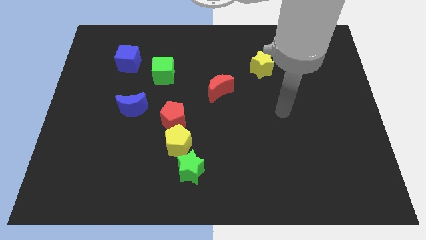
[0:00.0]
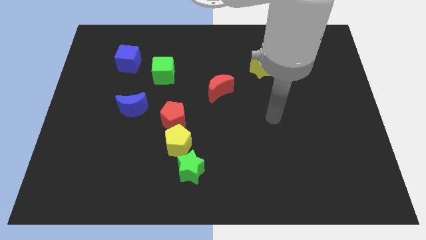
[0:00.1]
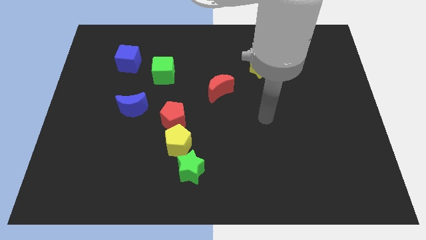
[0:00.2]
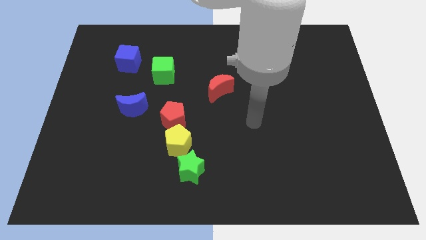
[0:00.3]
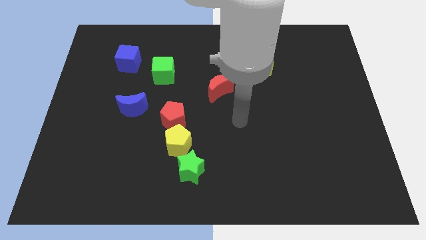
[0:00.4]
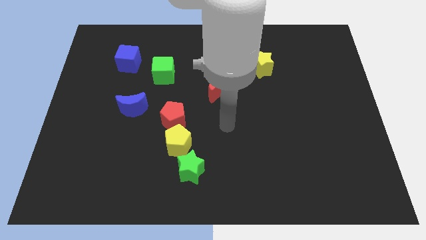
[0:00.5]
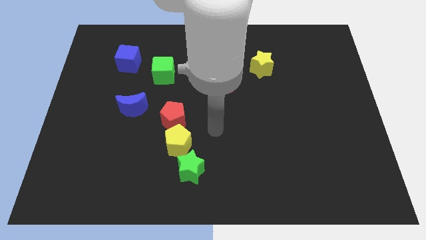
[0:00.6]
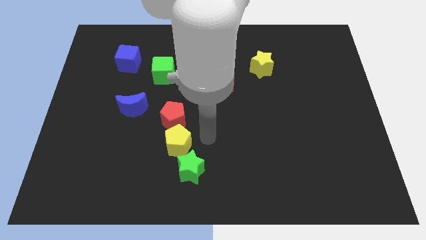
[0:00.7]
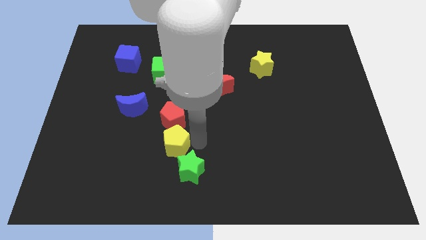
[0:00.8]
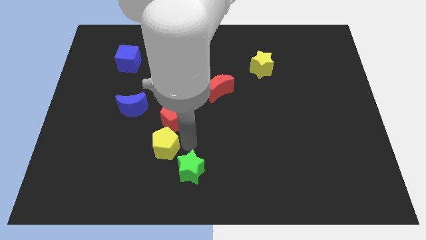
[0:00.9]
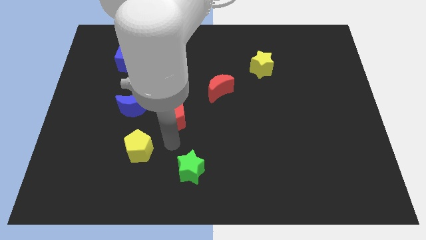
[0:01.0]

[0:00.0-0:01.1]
pull the red pentagon apart from the yellow pentagon

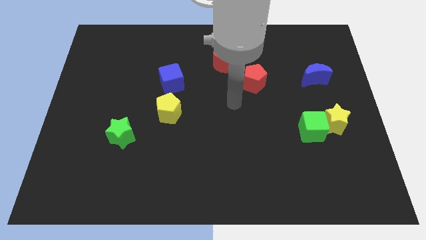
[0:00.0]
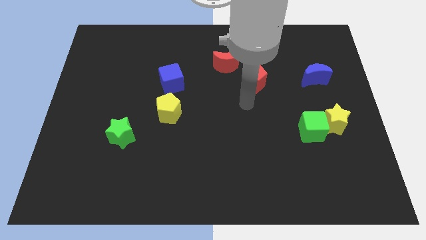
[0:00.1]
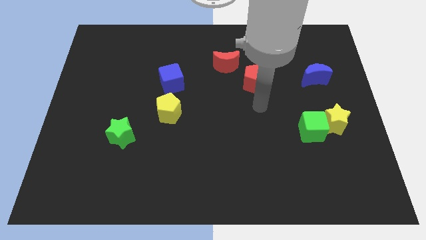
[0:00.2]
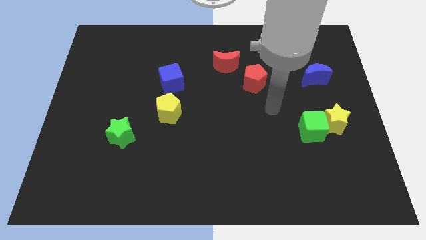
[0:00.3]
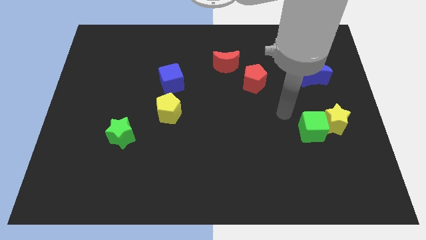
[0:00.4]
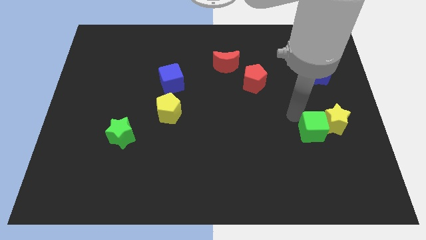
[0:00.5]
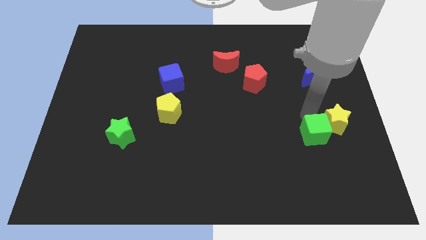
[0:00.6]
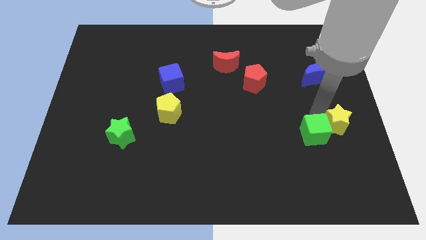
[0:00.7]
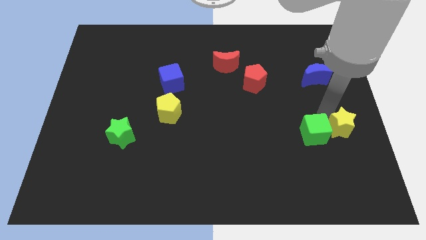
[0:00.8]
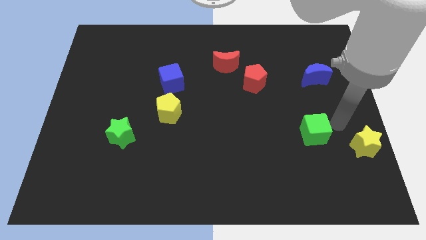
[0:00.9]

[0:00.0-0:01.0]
pull the green cube apart from the yellow star

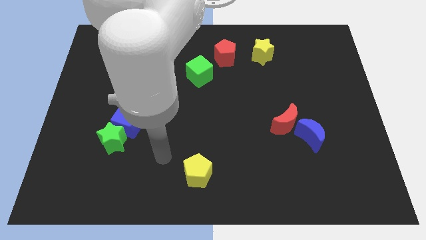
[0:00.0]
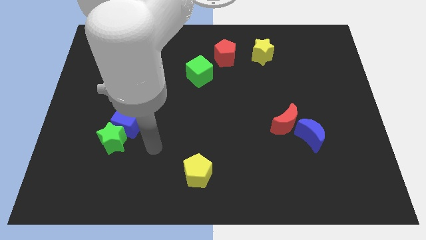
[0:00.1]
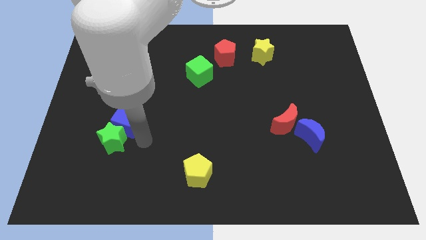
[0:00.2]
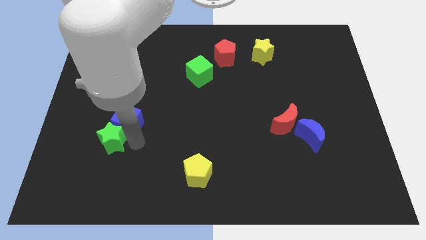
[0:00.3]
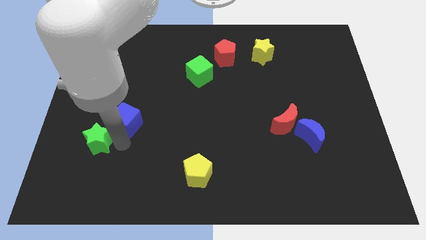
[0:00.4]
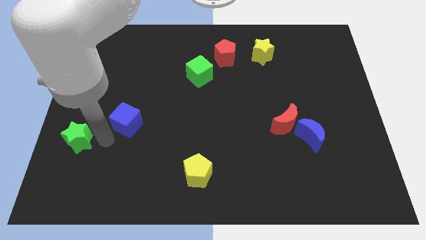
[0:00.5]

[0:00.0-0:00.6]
separate the blue cube from the green star

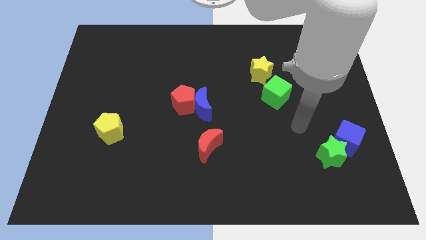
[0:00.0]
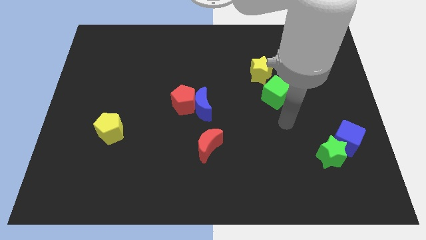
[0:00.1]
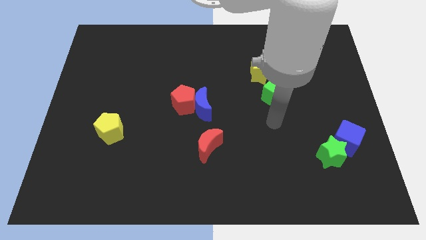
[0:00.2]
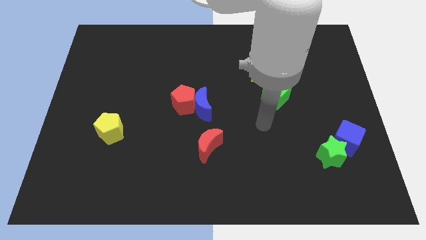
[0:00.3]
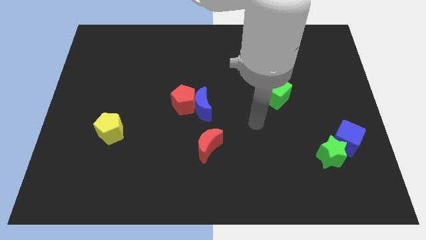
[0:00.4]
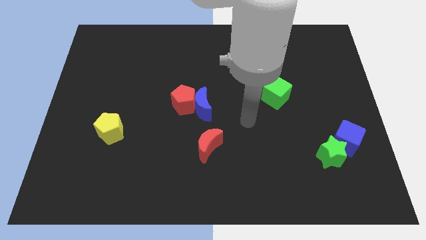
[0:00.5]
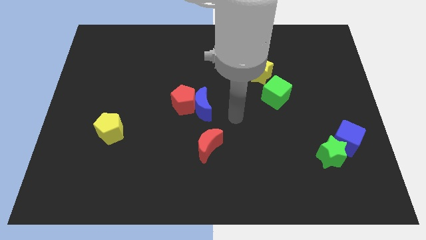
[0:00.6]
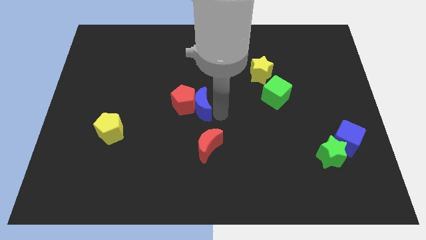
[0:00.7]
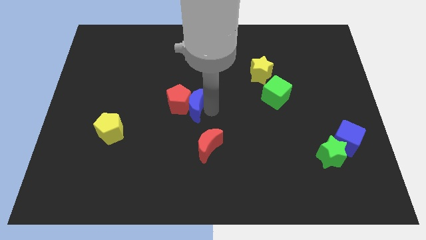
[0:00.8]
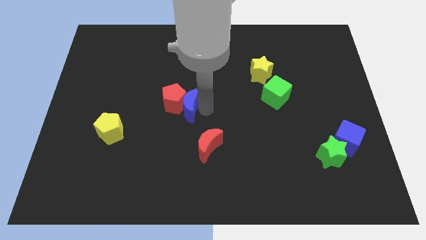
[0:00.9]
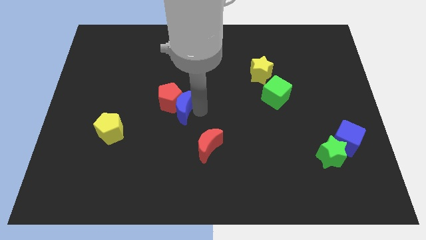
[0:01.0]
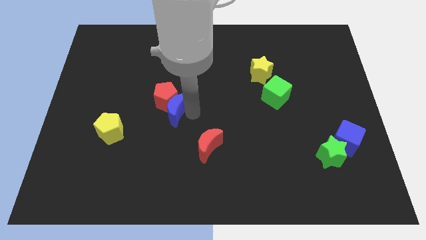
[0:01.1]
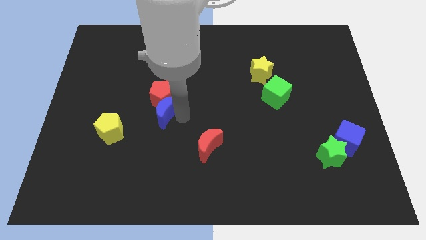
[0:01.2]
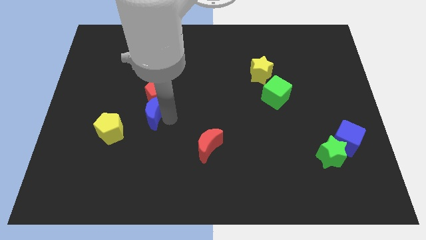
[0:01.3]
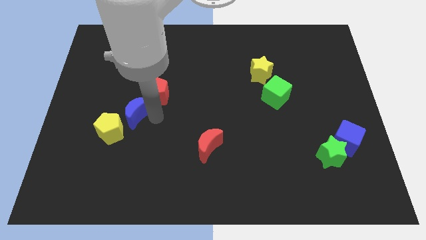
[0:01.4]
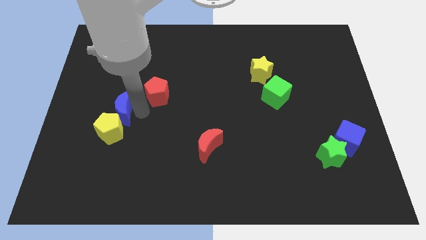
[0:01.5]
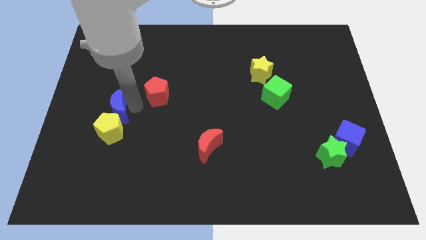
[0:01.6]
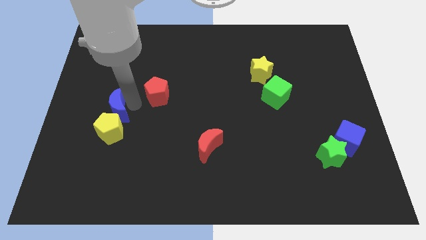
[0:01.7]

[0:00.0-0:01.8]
separate the red pentagon from the blue moon

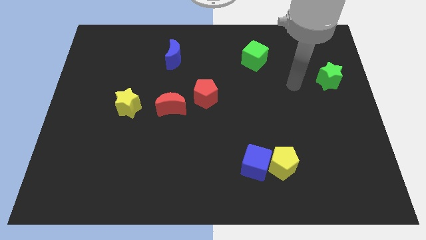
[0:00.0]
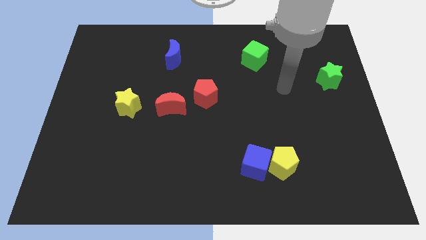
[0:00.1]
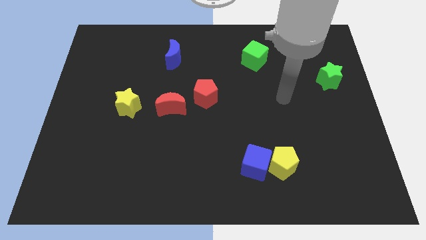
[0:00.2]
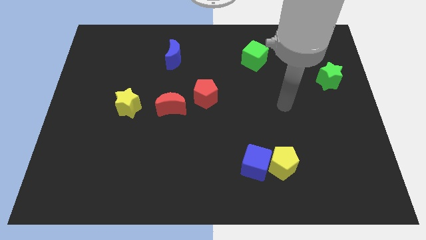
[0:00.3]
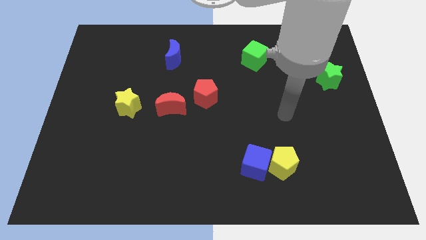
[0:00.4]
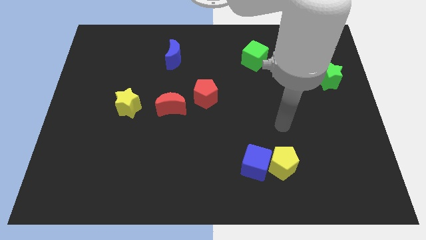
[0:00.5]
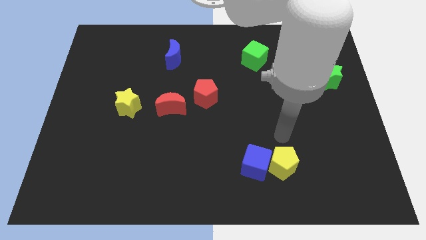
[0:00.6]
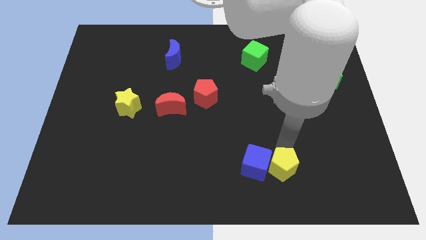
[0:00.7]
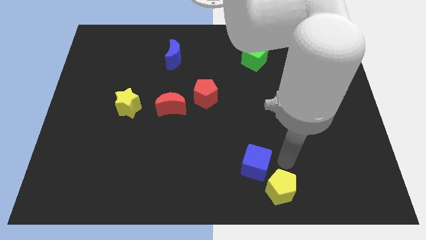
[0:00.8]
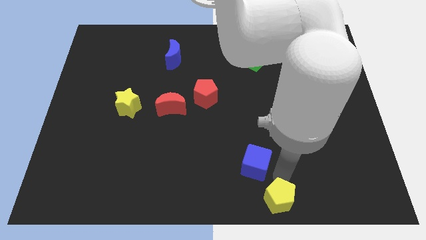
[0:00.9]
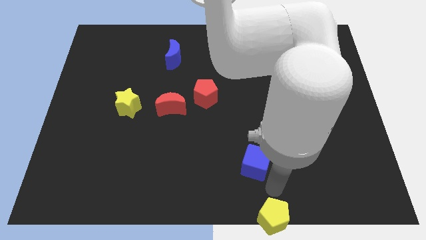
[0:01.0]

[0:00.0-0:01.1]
separate the blue cube from the yellow pentagon

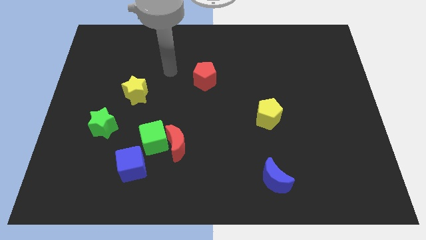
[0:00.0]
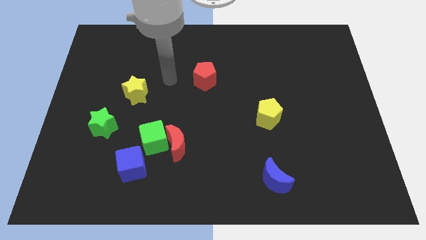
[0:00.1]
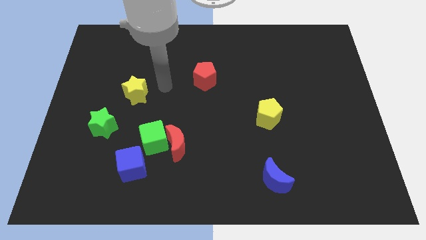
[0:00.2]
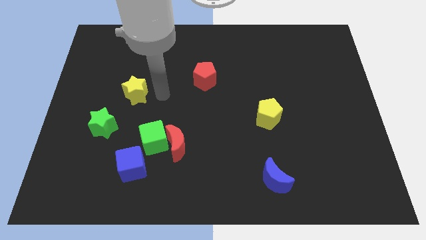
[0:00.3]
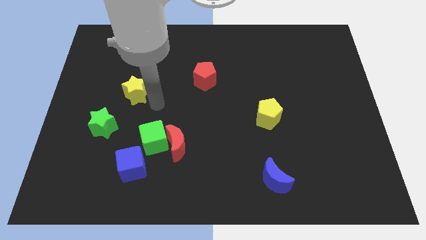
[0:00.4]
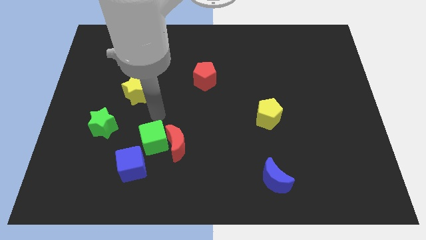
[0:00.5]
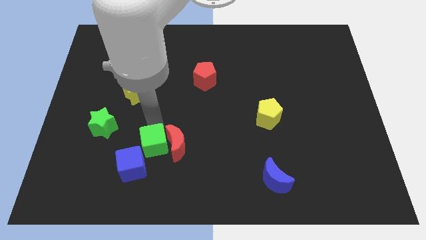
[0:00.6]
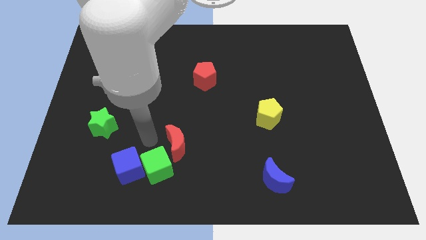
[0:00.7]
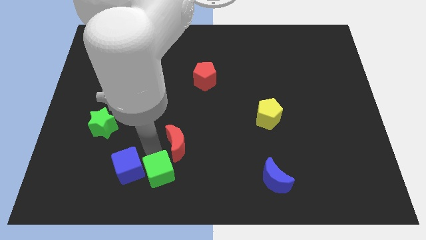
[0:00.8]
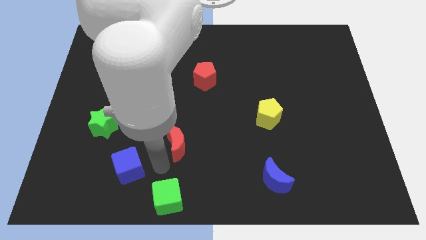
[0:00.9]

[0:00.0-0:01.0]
pull the red moon apart from the green cube

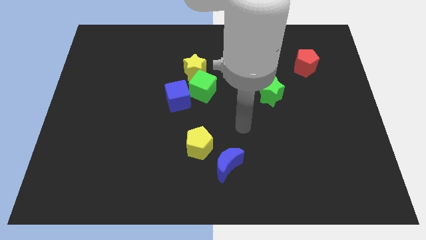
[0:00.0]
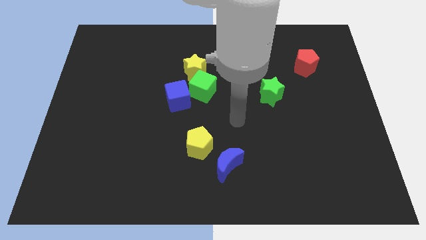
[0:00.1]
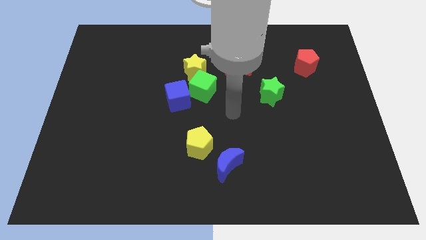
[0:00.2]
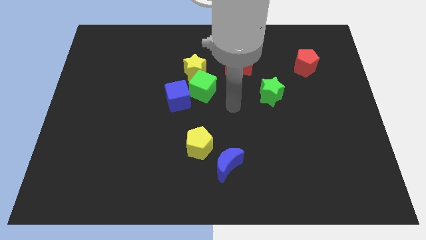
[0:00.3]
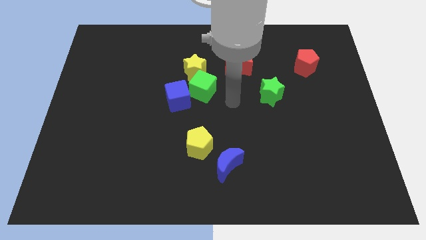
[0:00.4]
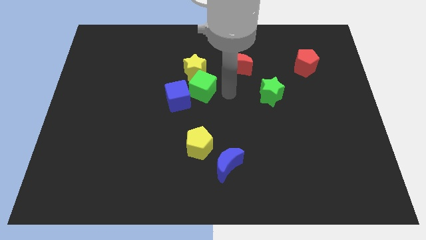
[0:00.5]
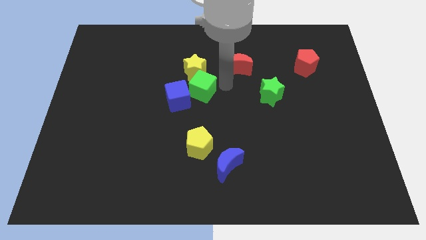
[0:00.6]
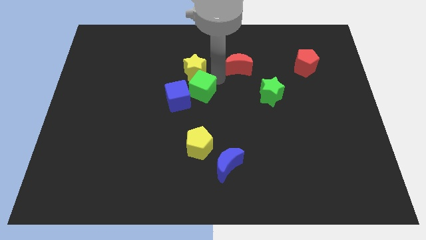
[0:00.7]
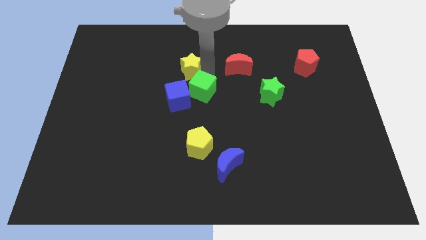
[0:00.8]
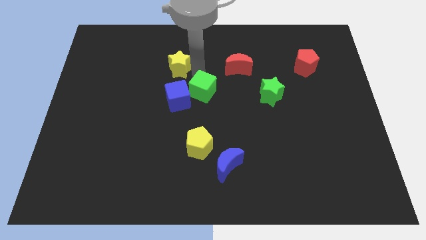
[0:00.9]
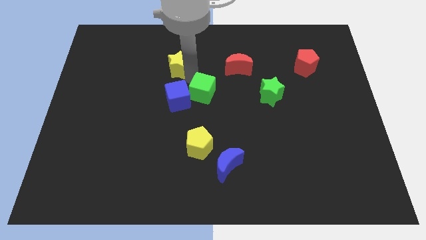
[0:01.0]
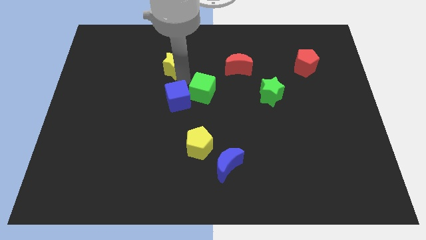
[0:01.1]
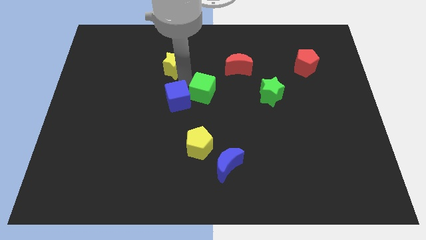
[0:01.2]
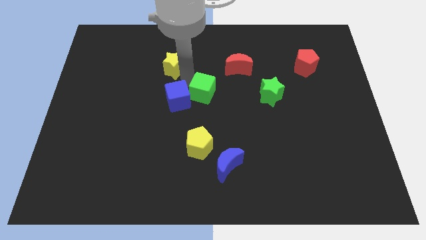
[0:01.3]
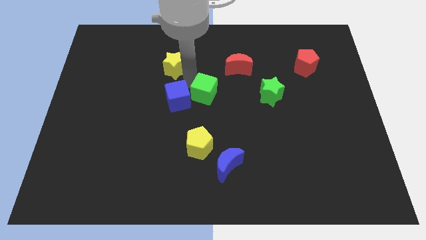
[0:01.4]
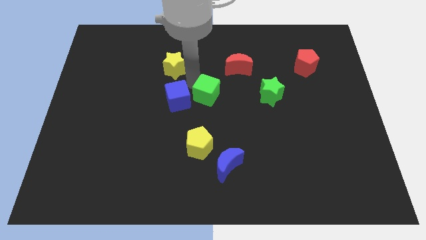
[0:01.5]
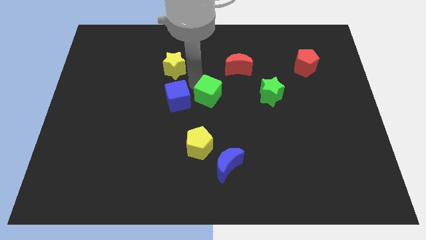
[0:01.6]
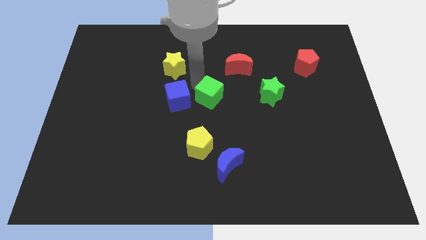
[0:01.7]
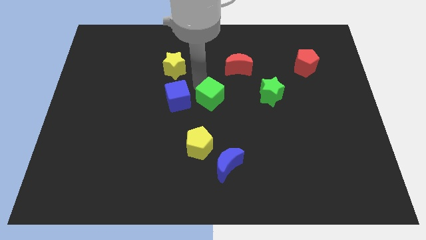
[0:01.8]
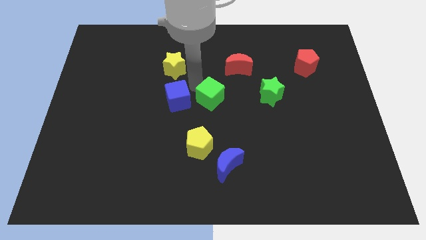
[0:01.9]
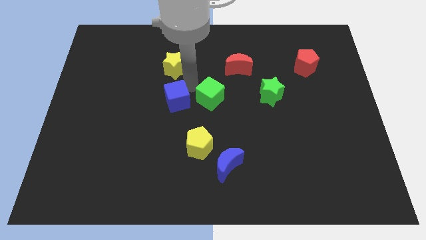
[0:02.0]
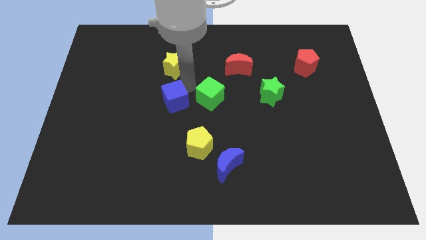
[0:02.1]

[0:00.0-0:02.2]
separate the green cube from the yellow star and blue cube

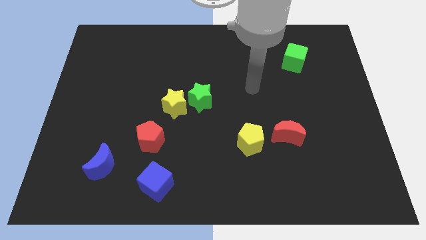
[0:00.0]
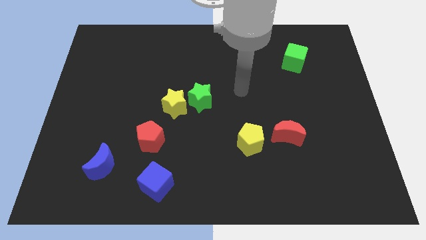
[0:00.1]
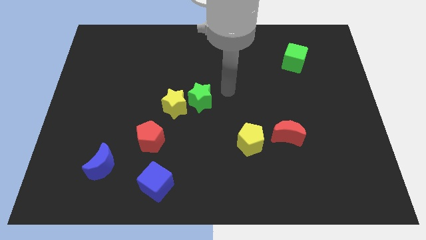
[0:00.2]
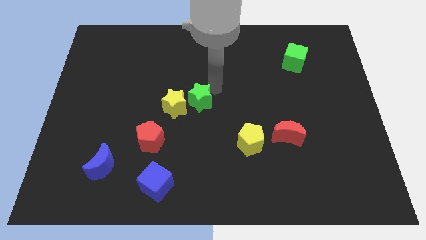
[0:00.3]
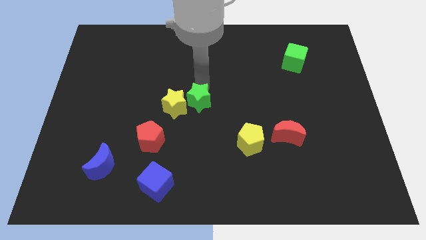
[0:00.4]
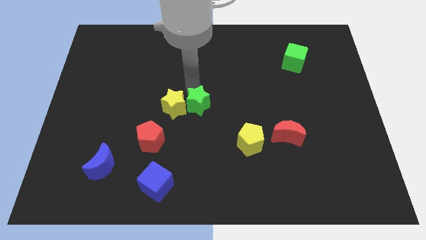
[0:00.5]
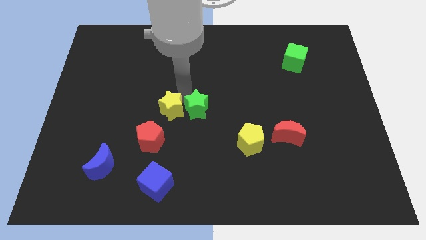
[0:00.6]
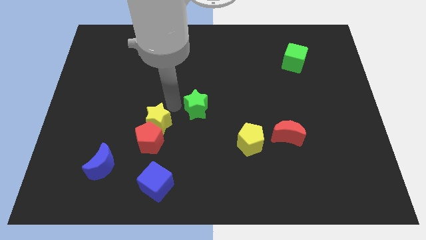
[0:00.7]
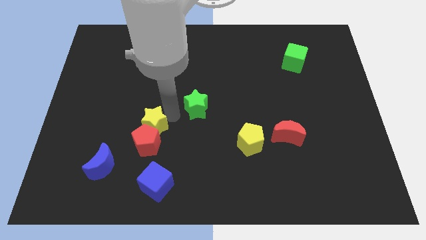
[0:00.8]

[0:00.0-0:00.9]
pull the green star apart from the yellow star
